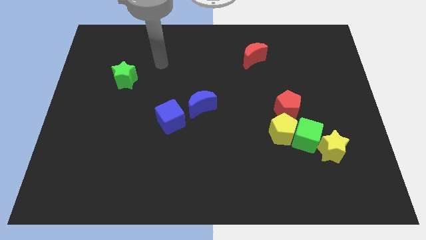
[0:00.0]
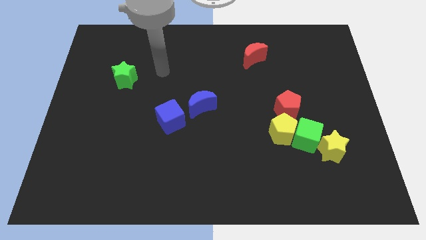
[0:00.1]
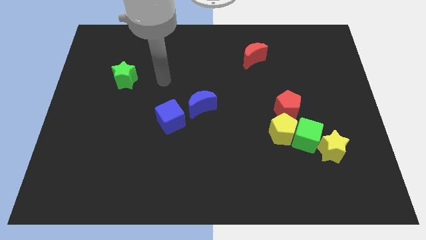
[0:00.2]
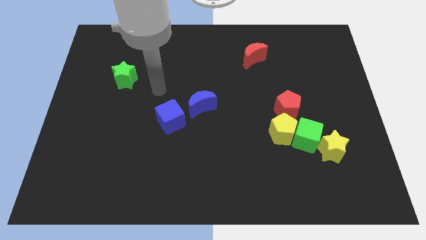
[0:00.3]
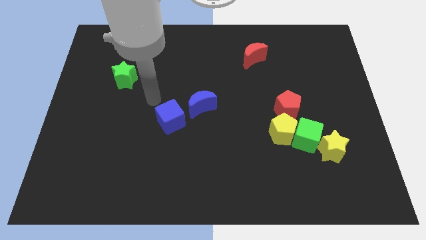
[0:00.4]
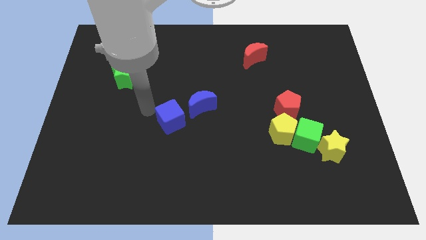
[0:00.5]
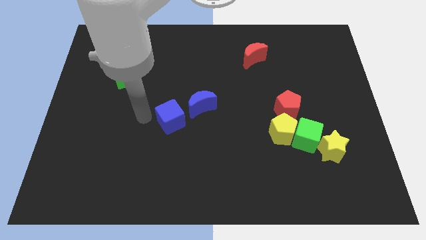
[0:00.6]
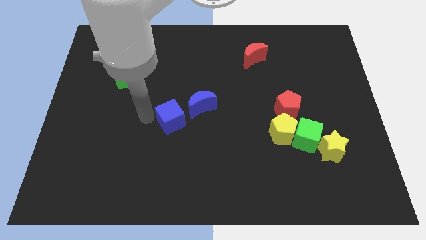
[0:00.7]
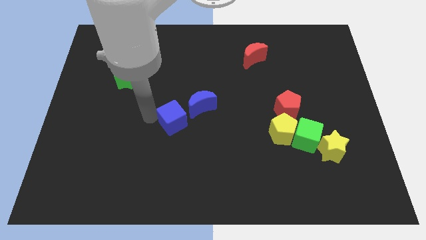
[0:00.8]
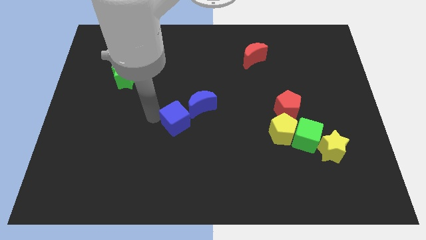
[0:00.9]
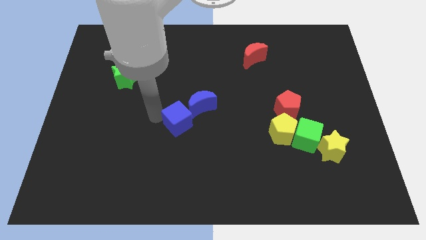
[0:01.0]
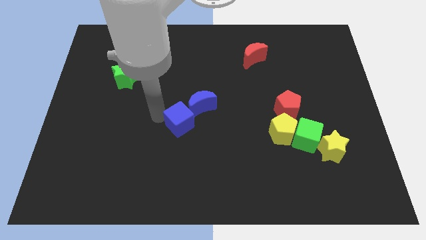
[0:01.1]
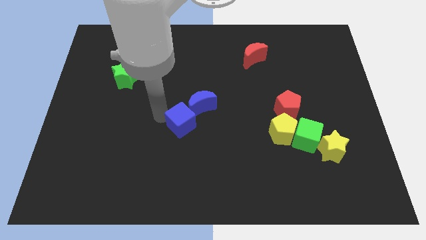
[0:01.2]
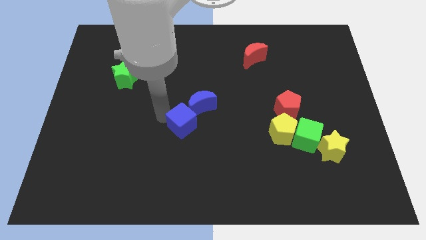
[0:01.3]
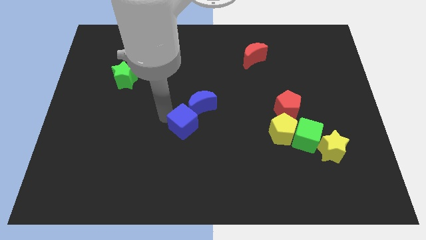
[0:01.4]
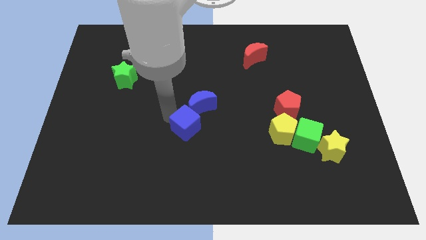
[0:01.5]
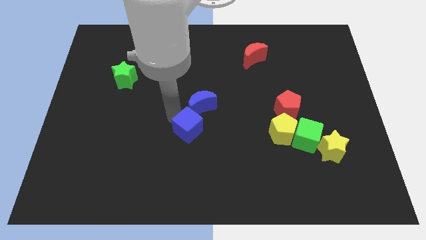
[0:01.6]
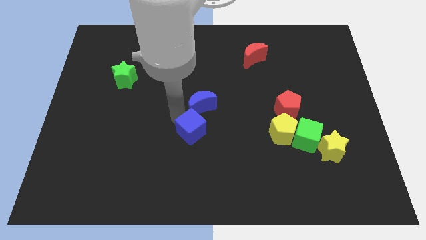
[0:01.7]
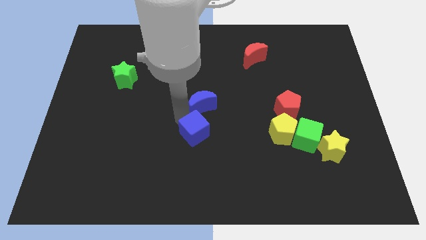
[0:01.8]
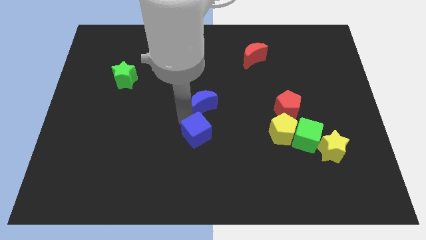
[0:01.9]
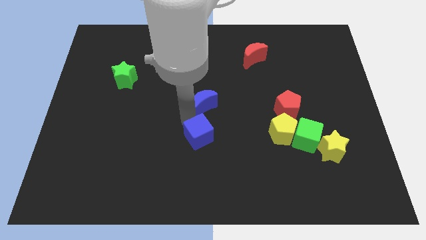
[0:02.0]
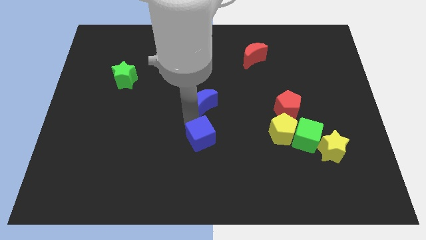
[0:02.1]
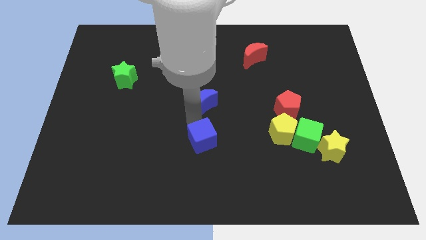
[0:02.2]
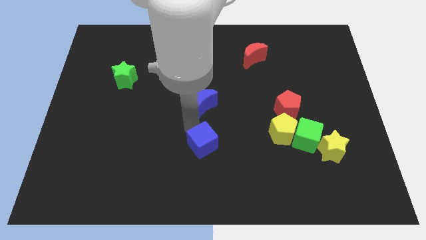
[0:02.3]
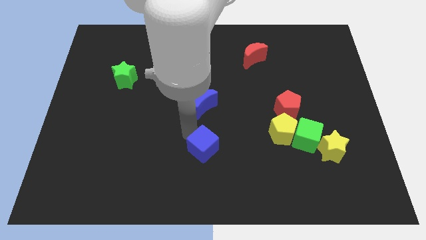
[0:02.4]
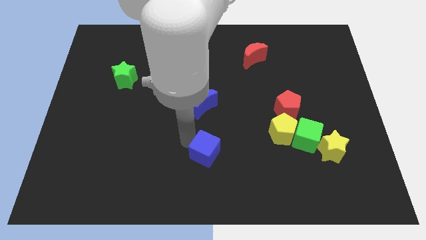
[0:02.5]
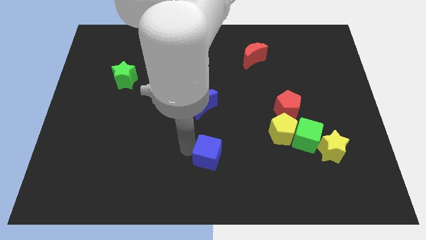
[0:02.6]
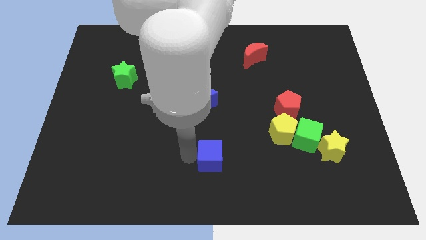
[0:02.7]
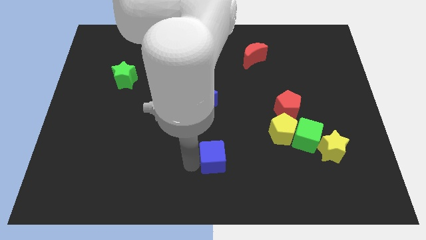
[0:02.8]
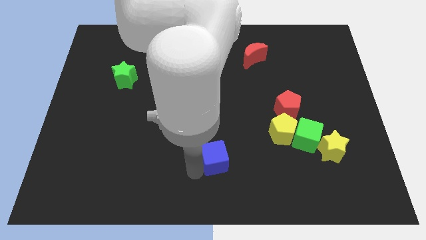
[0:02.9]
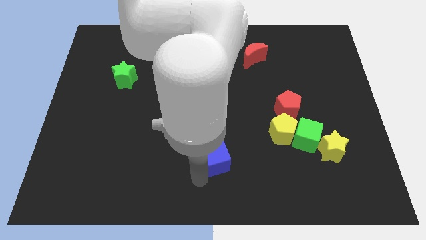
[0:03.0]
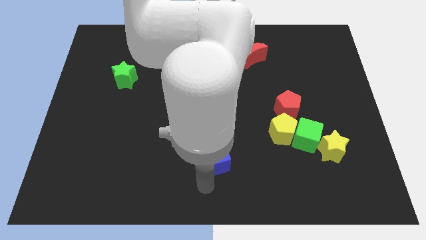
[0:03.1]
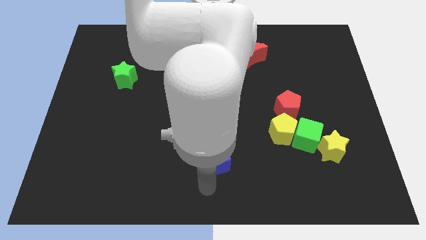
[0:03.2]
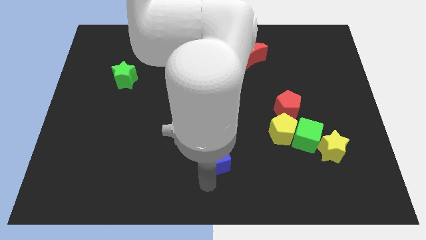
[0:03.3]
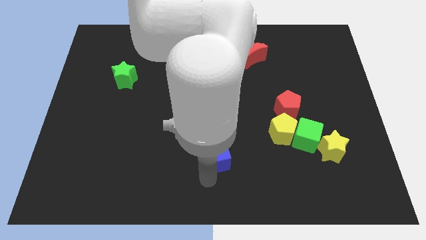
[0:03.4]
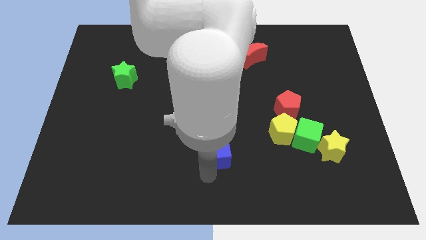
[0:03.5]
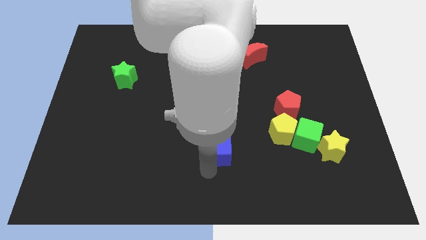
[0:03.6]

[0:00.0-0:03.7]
slide the blue cube slightly right

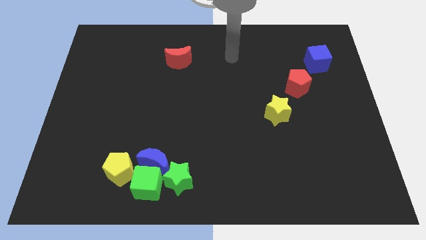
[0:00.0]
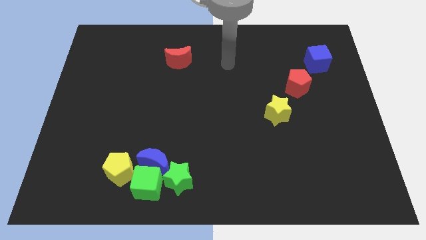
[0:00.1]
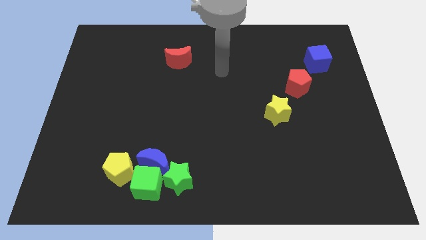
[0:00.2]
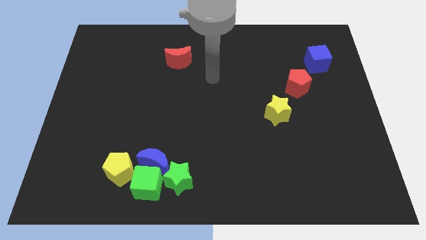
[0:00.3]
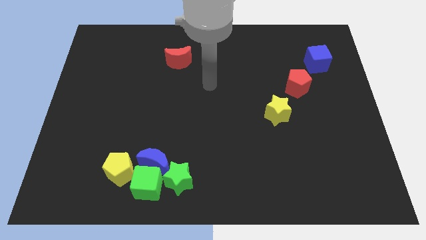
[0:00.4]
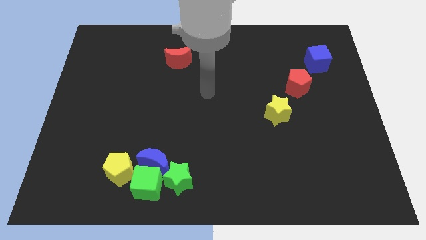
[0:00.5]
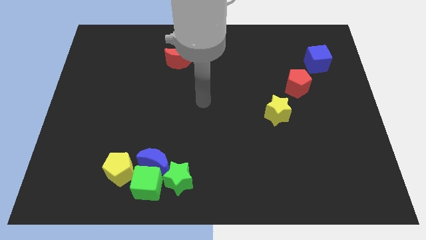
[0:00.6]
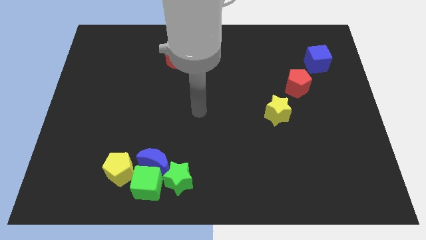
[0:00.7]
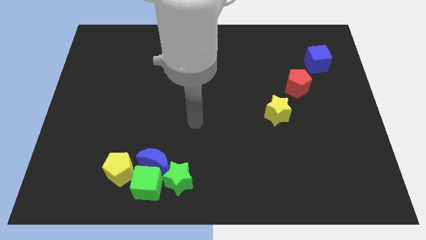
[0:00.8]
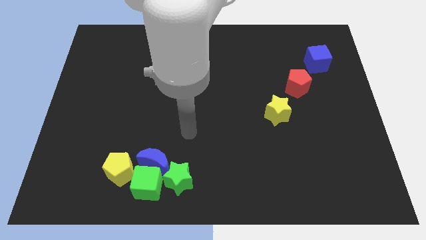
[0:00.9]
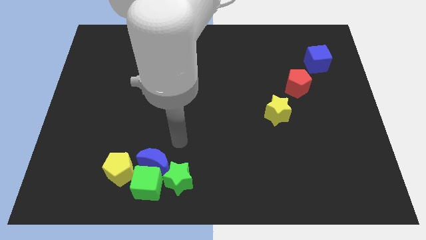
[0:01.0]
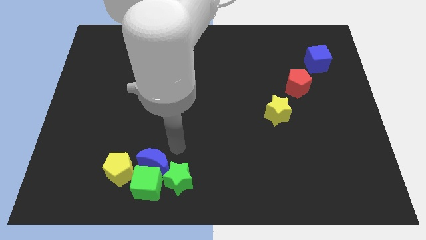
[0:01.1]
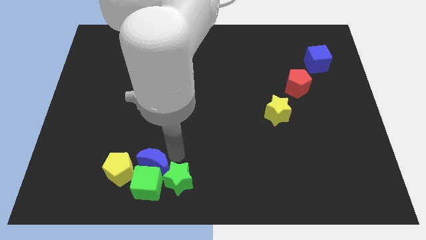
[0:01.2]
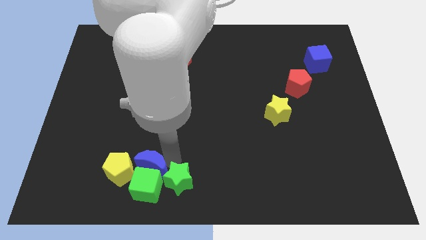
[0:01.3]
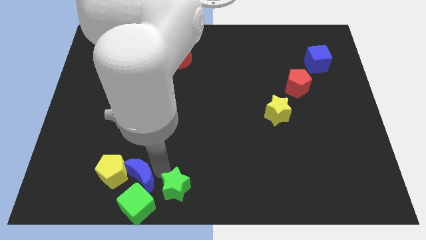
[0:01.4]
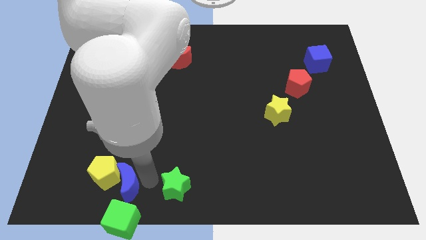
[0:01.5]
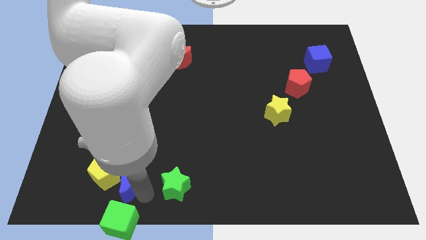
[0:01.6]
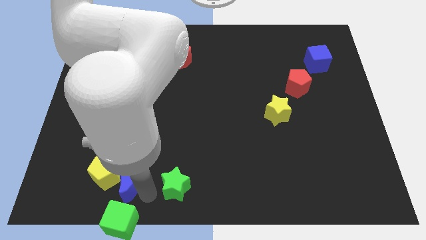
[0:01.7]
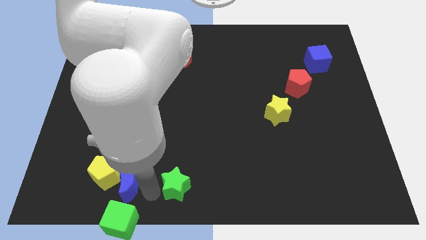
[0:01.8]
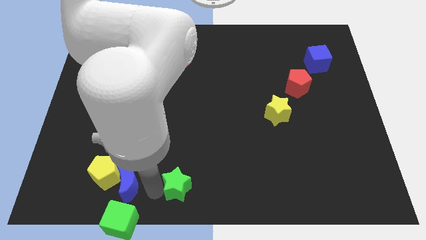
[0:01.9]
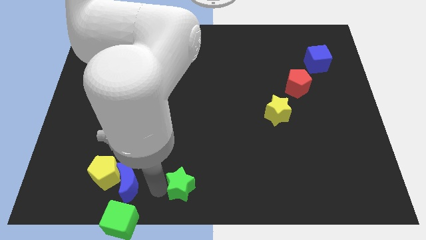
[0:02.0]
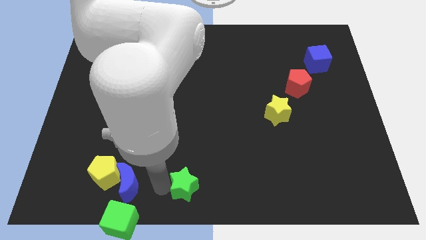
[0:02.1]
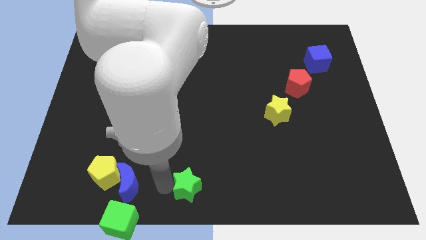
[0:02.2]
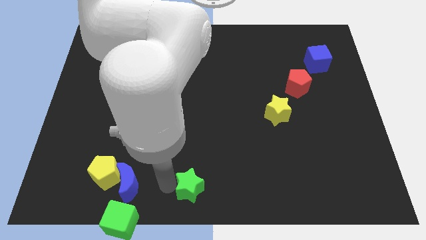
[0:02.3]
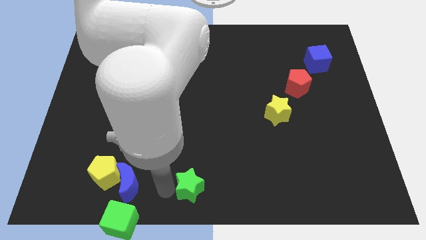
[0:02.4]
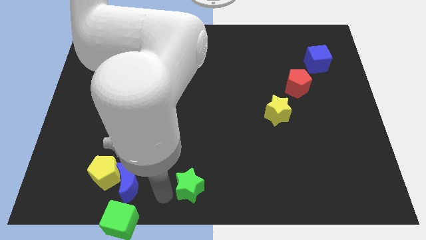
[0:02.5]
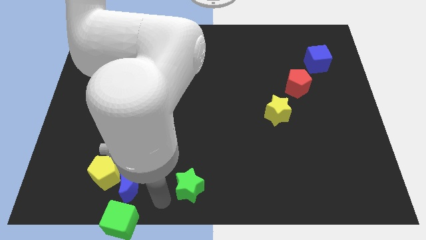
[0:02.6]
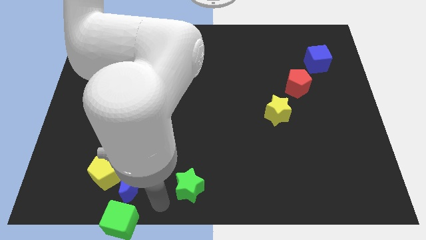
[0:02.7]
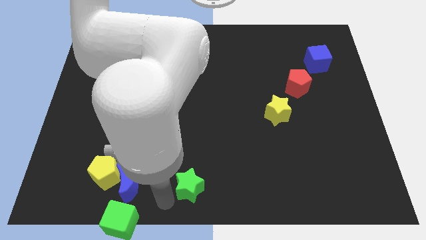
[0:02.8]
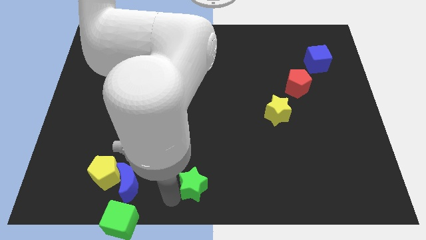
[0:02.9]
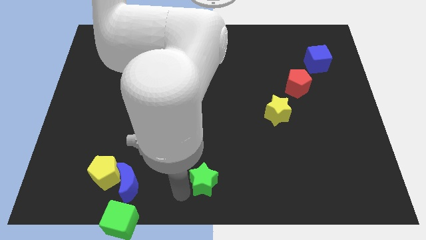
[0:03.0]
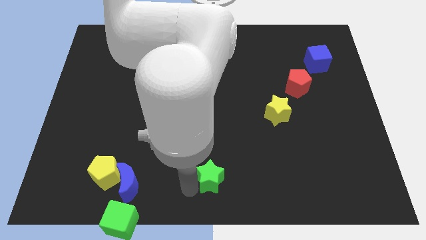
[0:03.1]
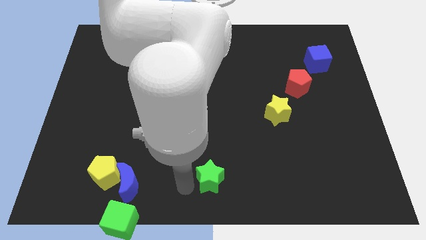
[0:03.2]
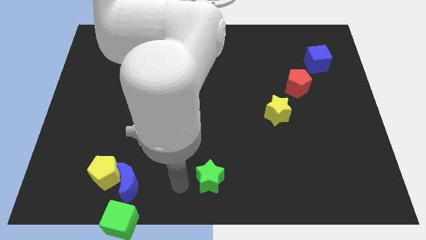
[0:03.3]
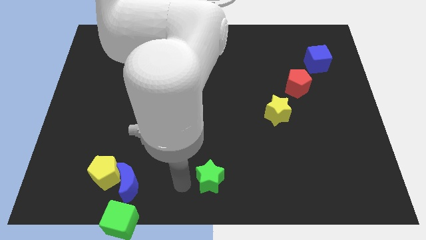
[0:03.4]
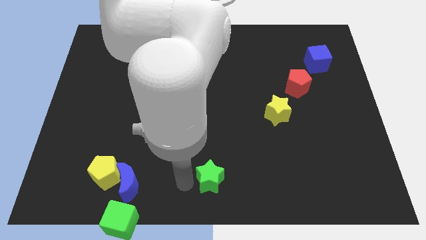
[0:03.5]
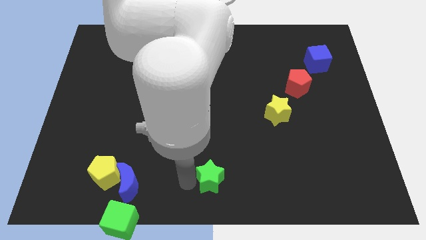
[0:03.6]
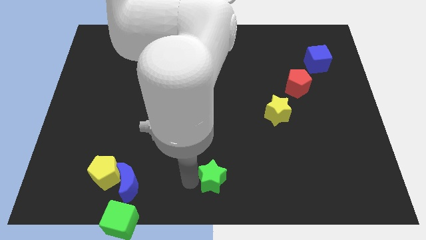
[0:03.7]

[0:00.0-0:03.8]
slightly push the green star to the right

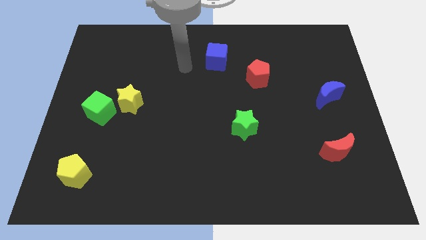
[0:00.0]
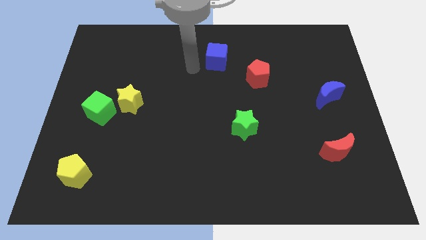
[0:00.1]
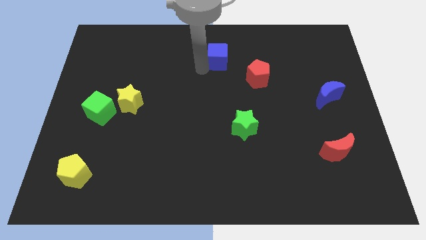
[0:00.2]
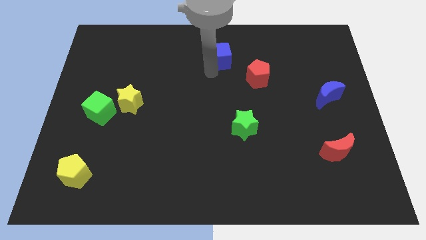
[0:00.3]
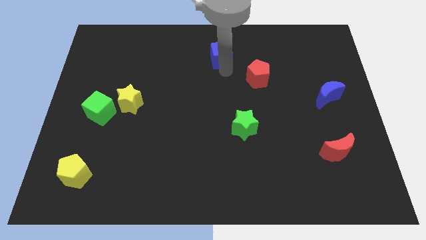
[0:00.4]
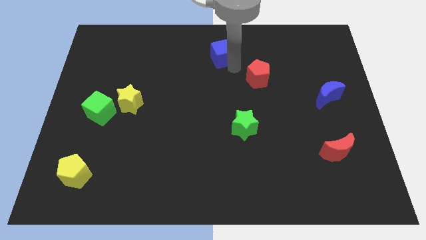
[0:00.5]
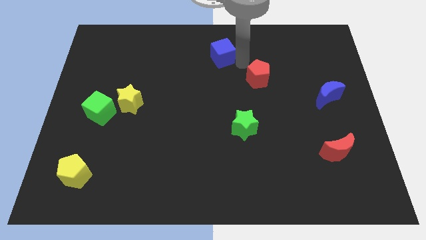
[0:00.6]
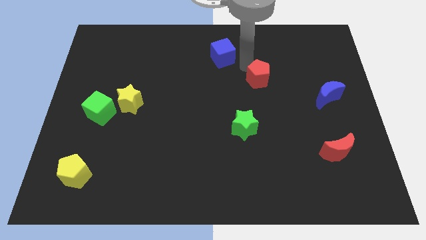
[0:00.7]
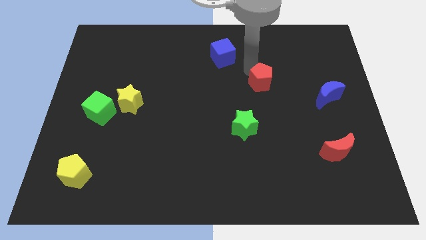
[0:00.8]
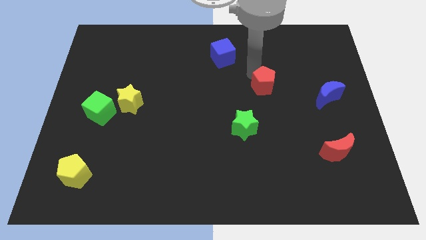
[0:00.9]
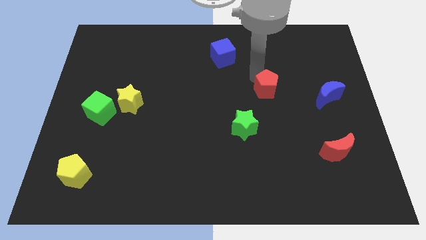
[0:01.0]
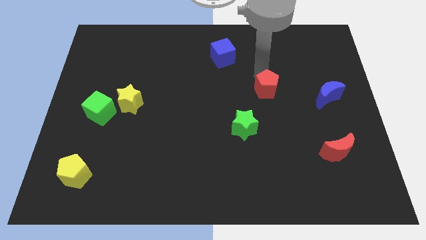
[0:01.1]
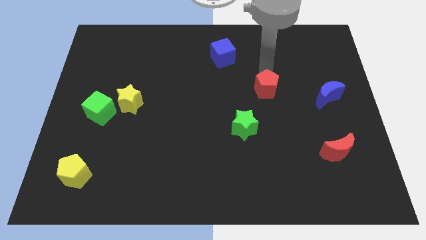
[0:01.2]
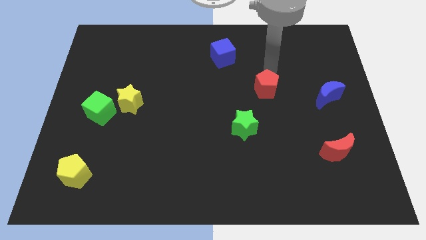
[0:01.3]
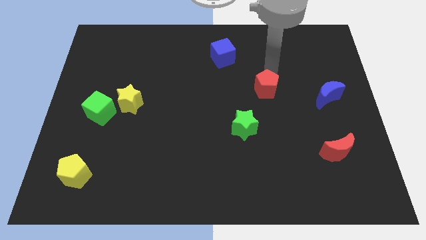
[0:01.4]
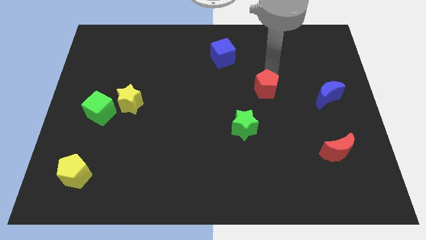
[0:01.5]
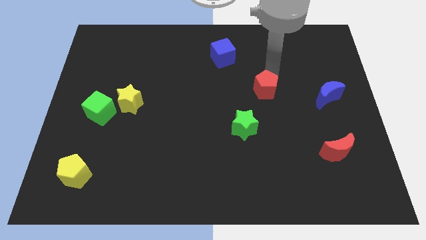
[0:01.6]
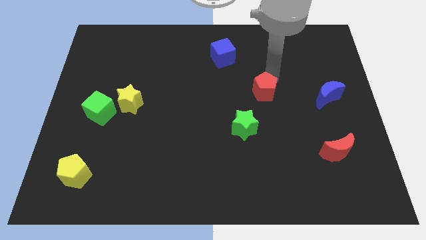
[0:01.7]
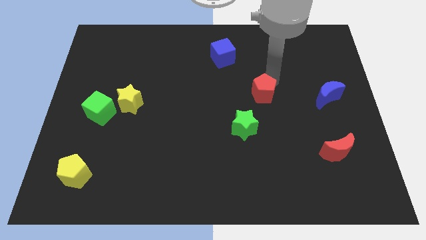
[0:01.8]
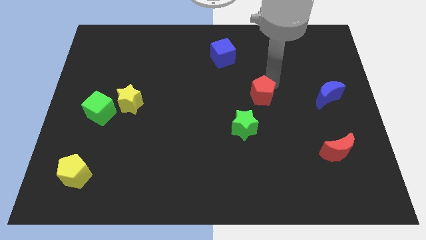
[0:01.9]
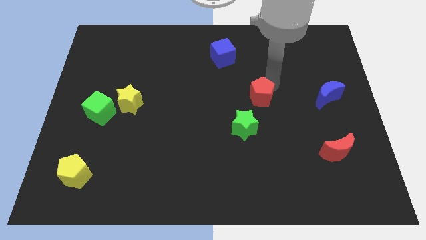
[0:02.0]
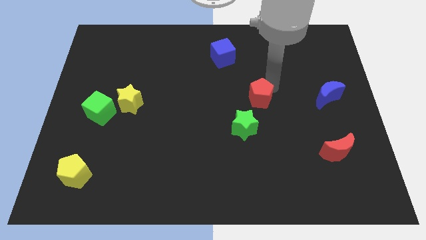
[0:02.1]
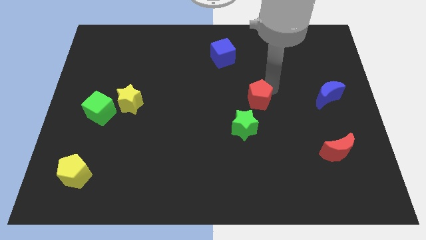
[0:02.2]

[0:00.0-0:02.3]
slightly slide the red pentagon downwards
